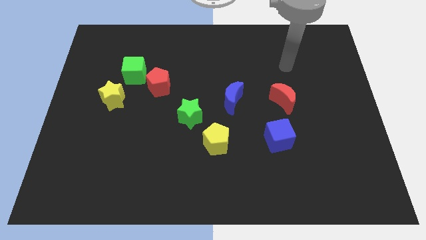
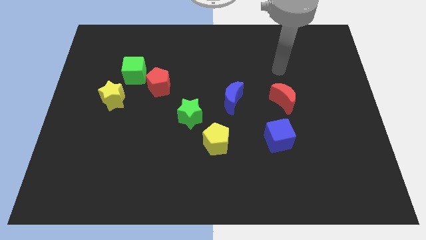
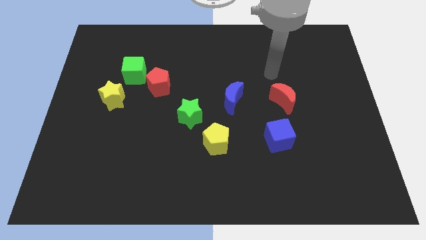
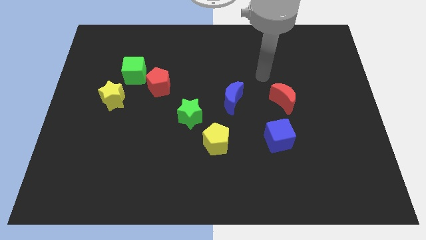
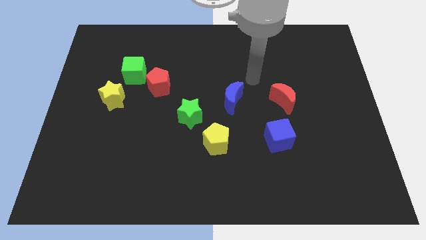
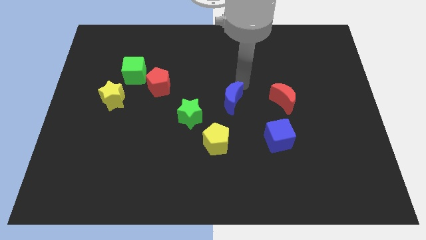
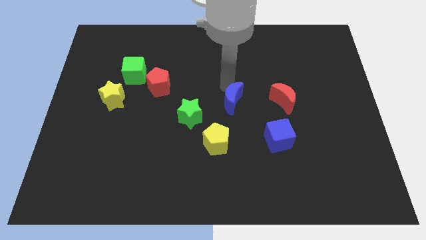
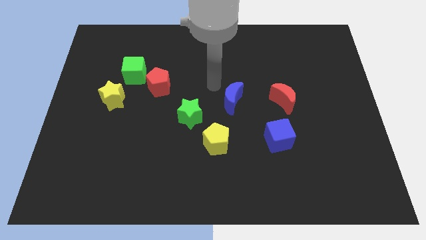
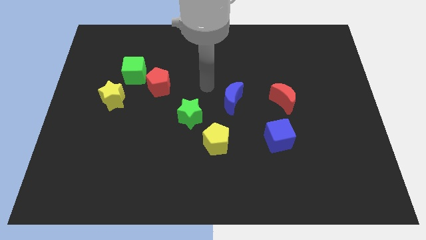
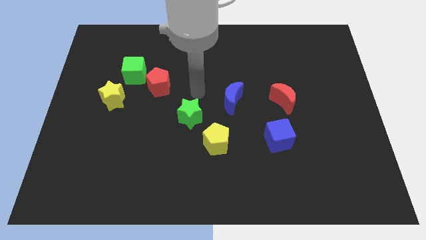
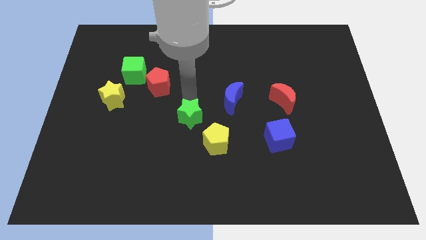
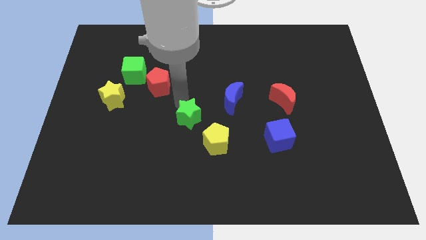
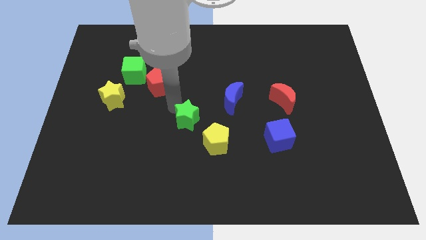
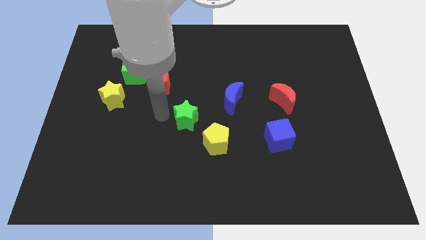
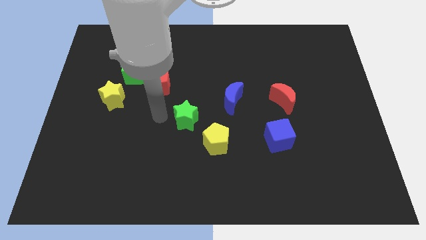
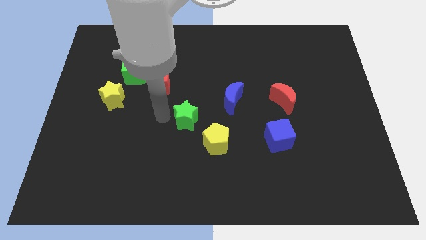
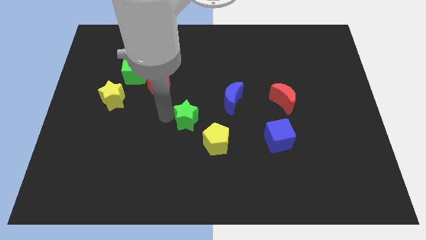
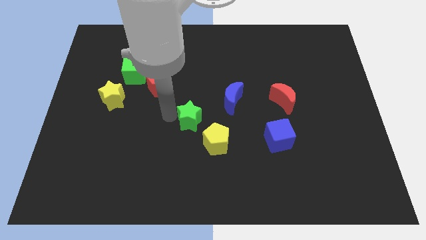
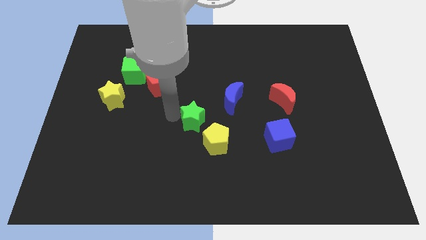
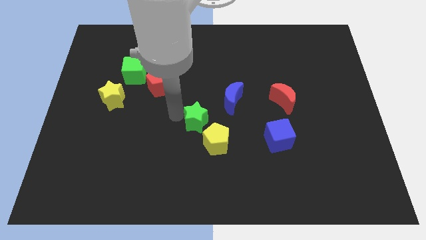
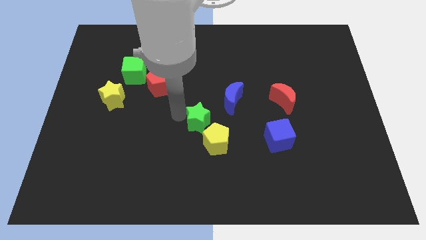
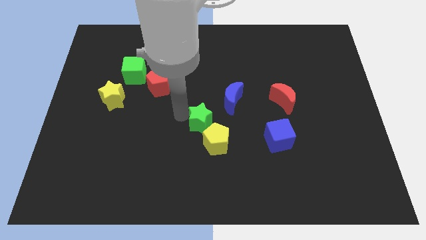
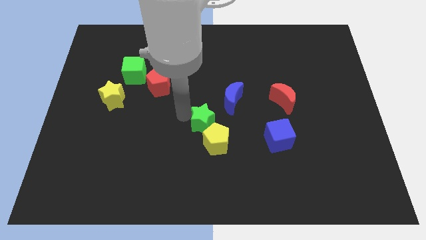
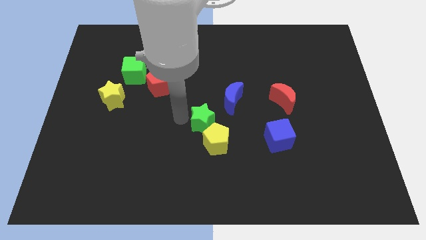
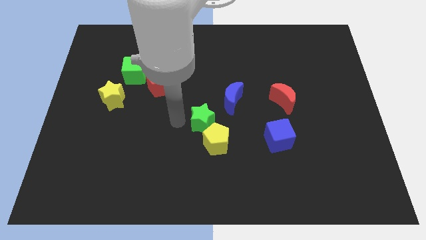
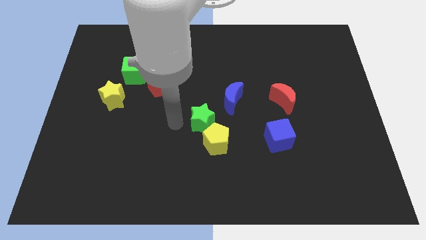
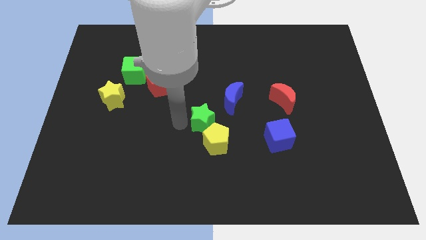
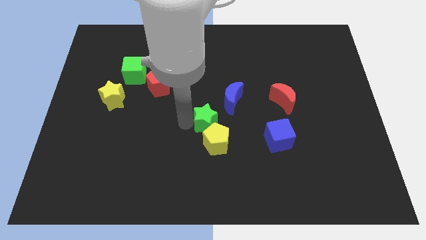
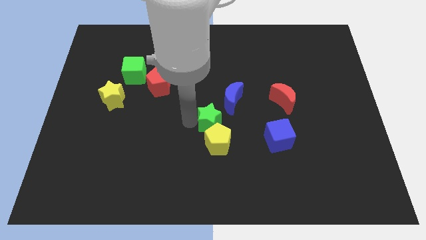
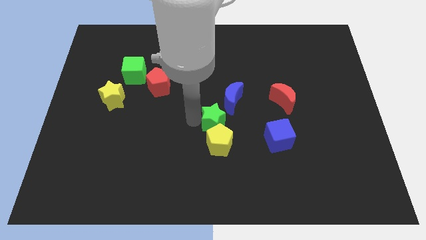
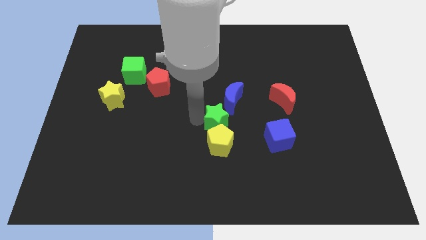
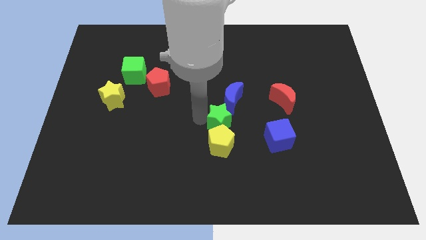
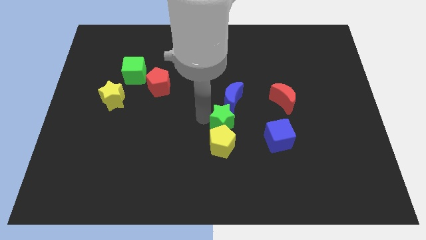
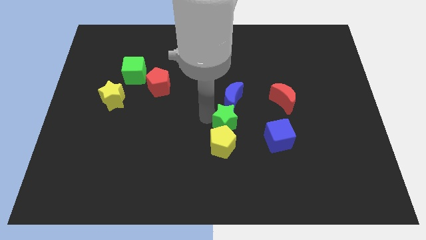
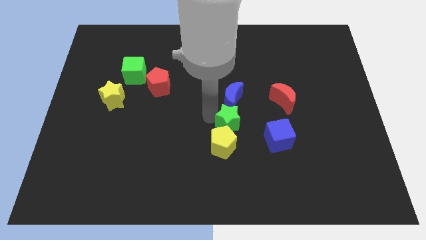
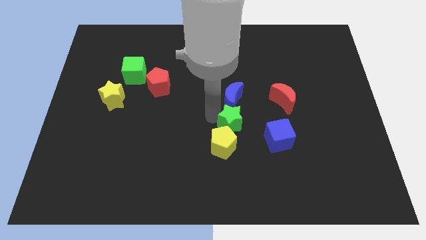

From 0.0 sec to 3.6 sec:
slide the green star downwards and to the right diagonally a little

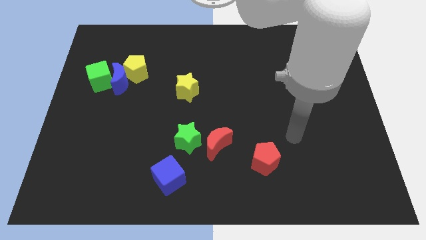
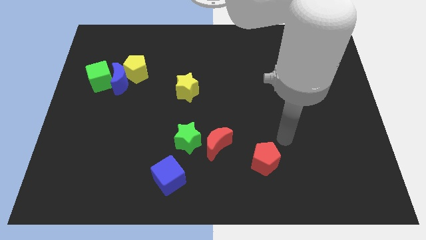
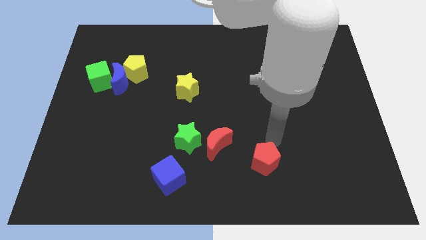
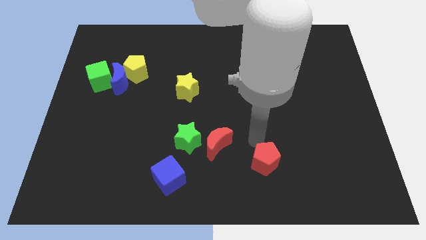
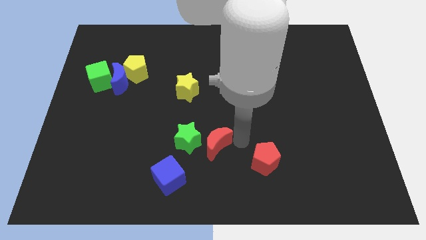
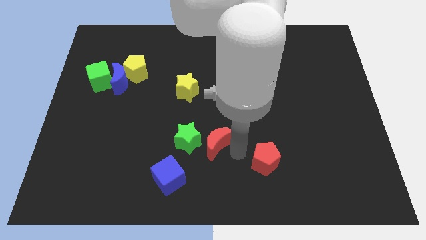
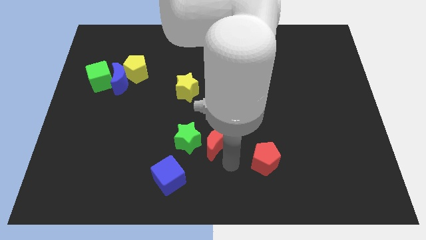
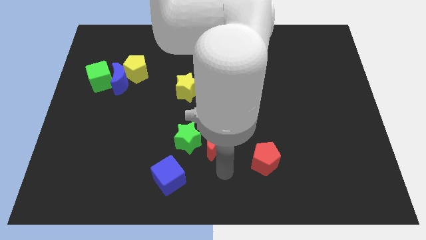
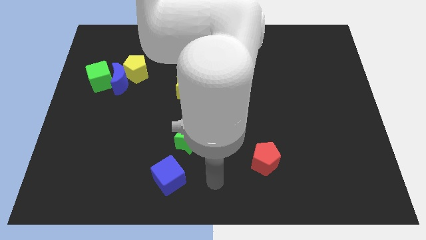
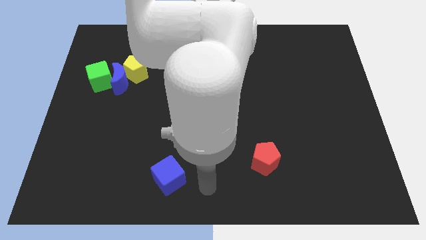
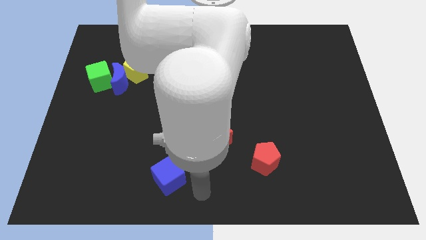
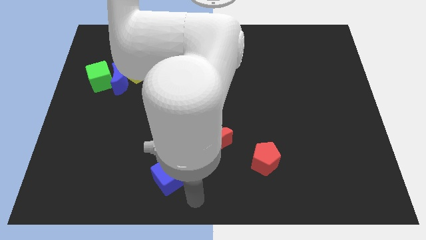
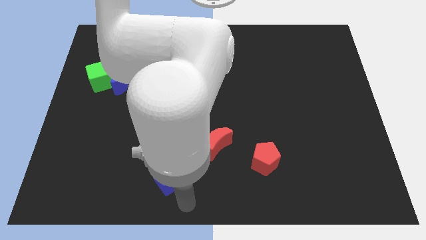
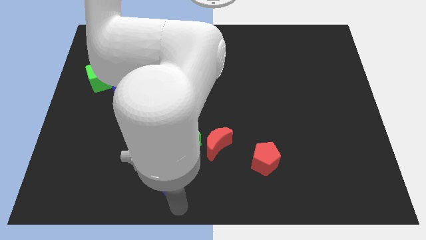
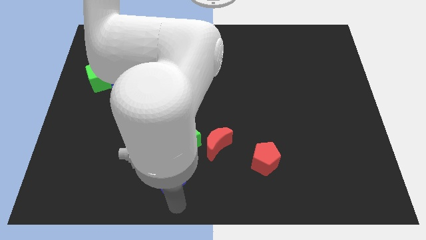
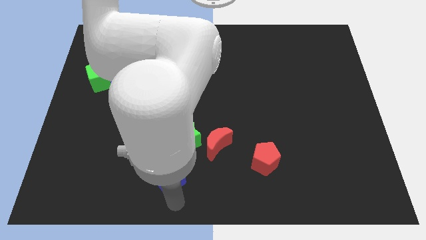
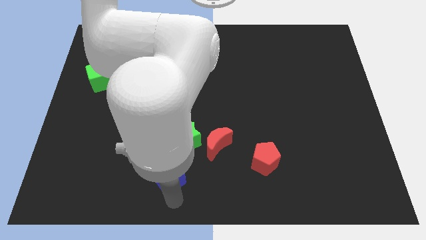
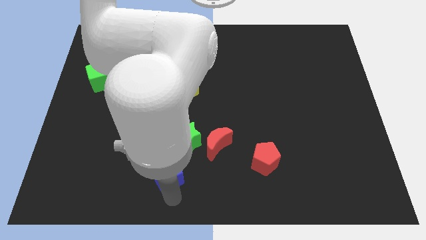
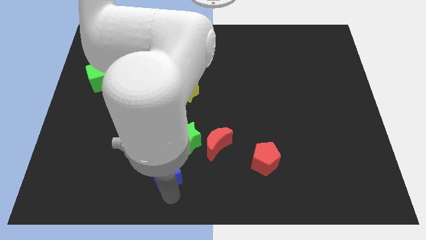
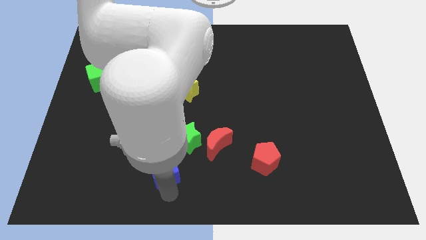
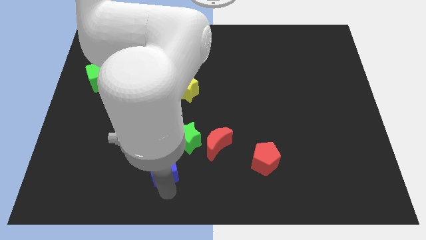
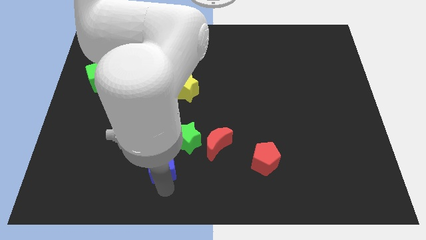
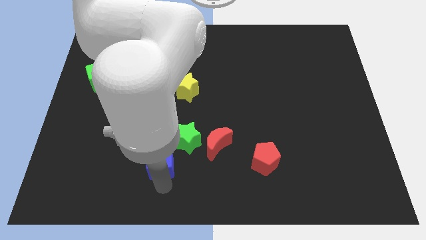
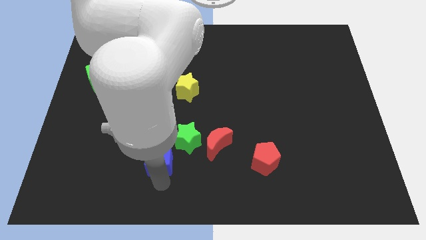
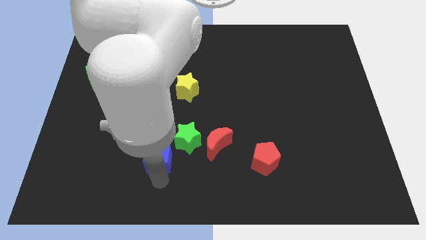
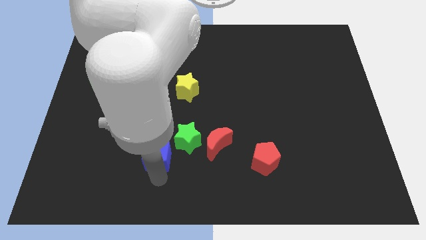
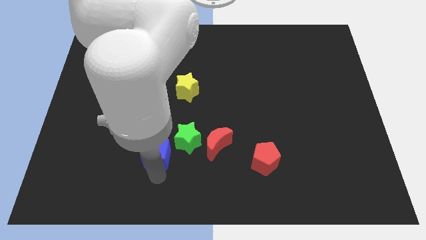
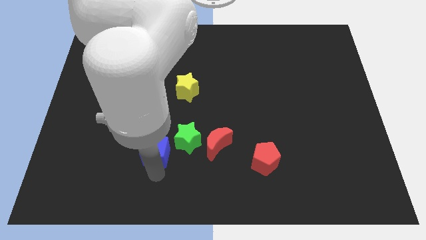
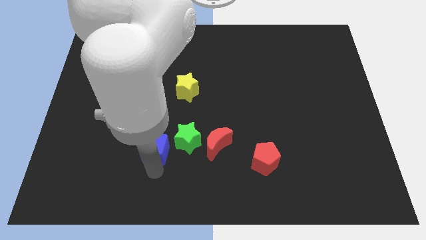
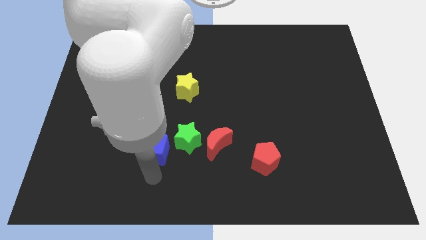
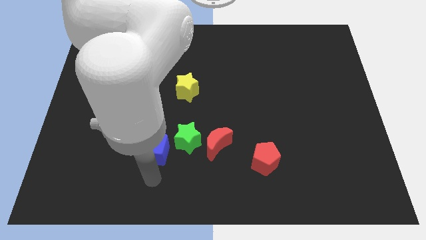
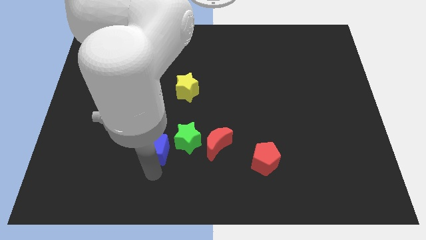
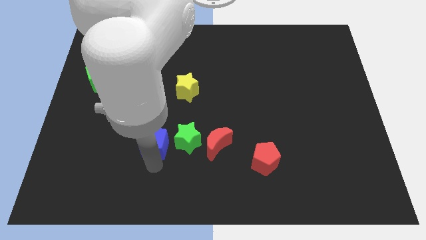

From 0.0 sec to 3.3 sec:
slightly push the blue cube up

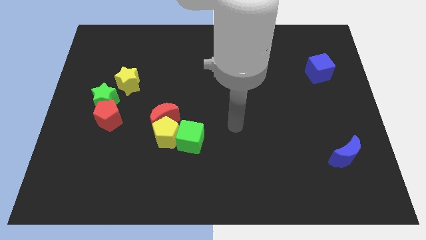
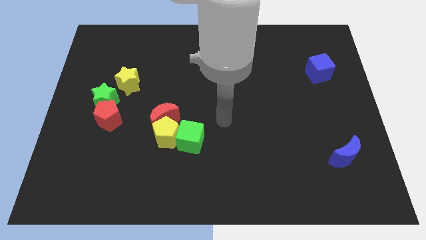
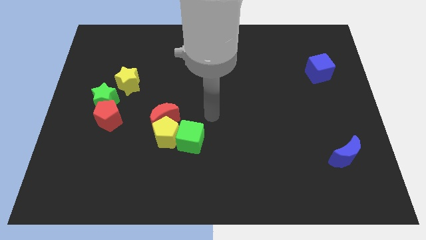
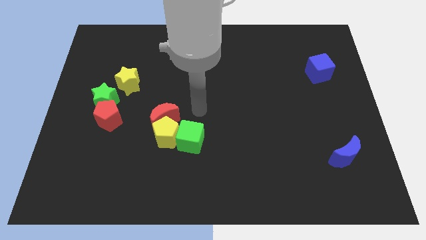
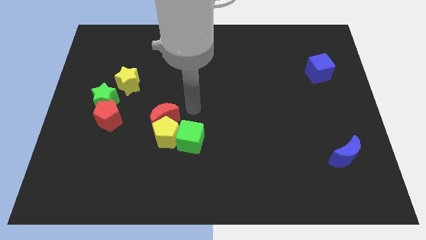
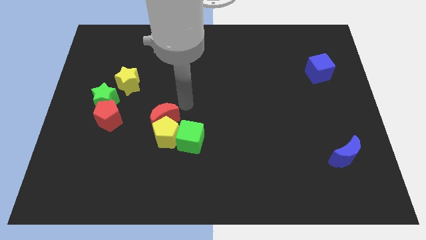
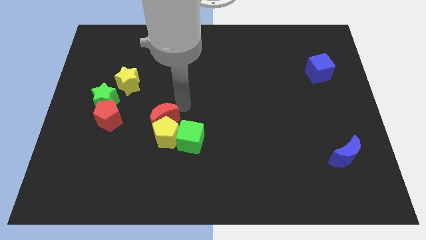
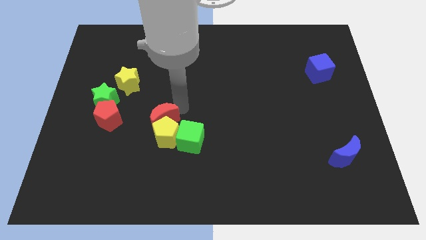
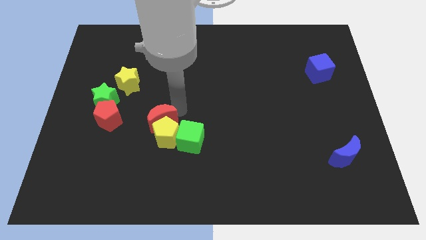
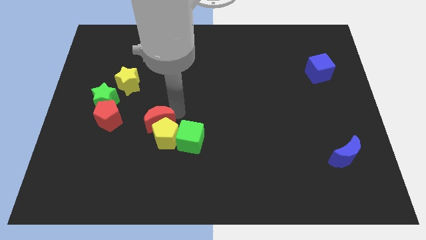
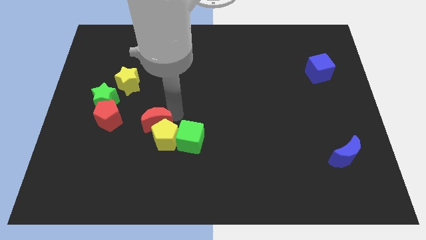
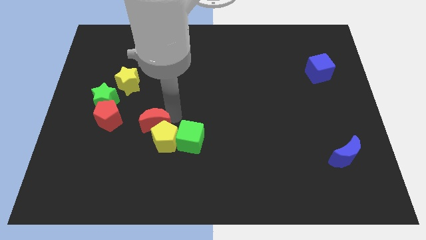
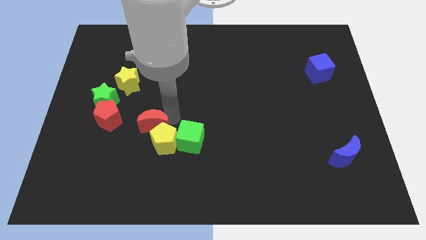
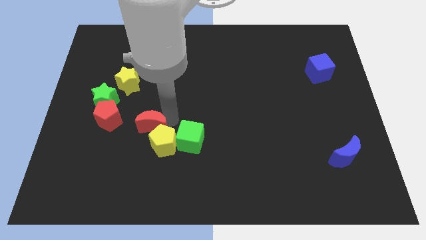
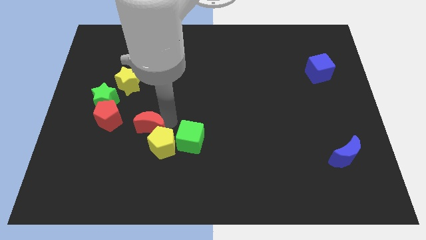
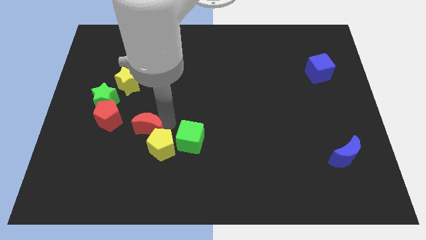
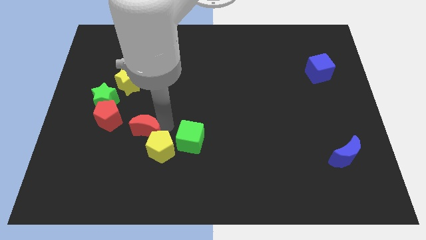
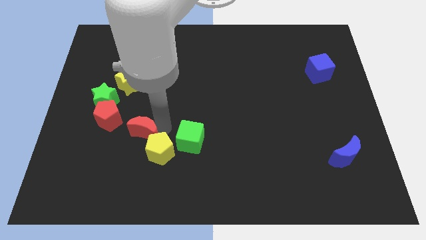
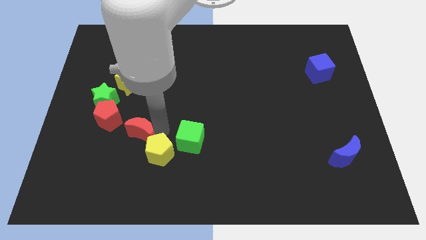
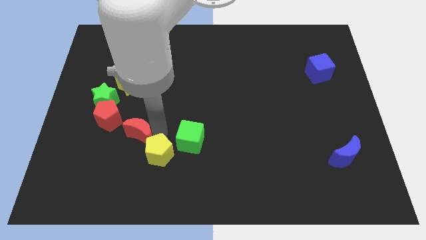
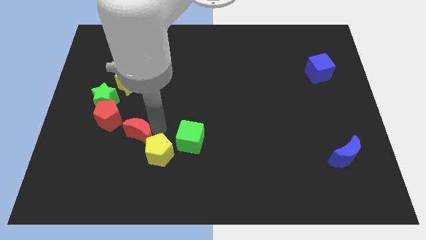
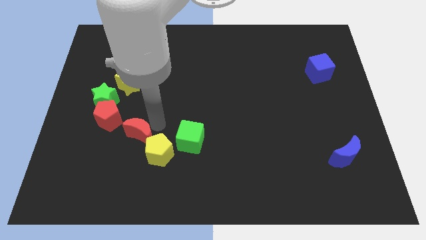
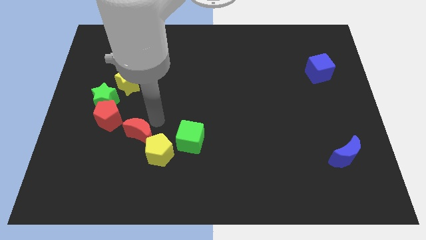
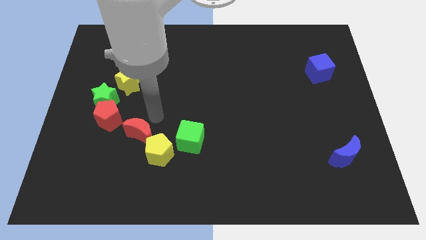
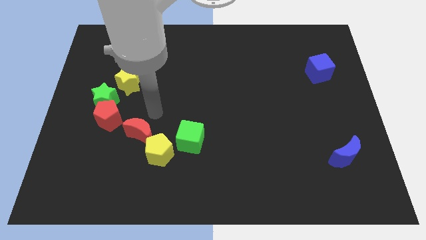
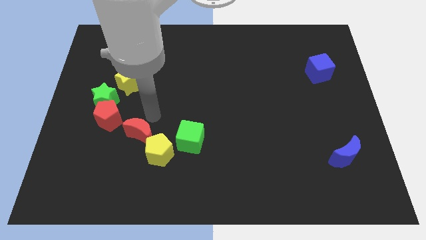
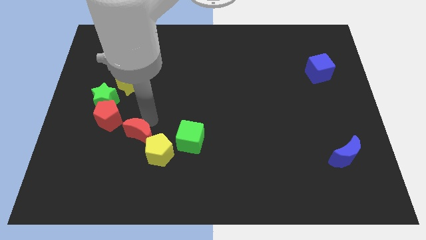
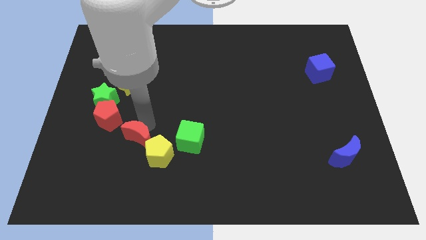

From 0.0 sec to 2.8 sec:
slide the red moon downwards and then left a little
